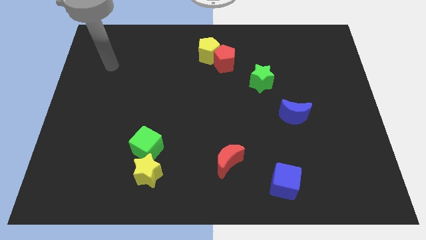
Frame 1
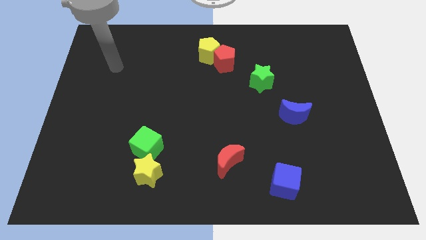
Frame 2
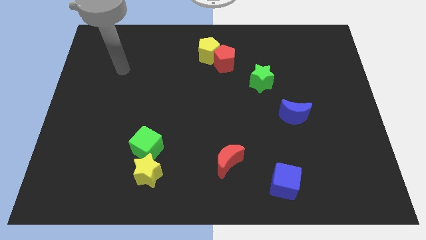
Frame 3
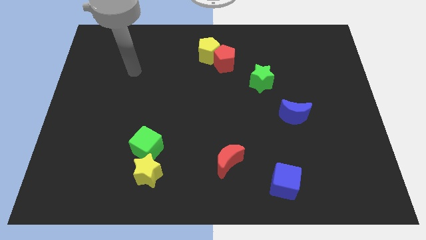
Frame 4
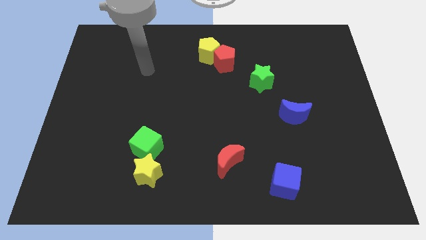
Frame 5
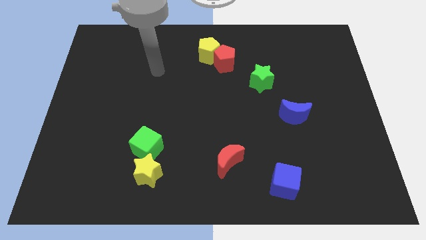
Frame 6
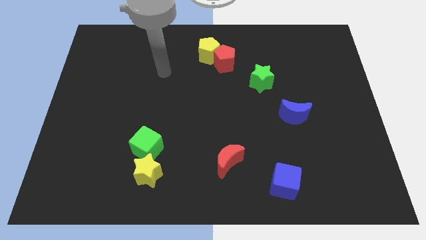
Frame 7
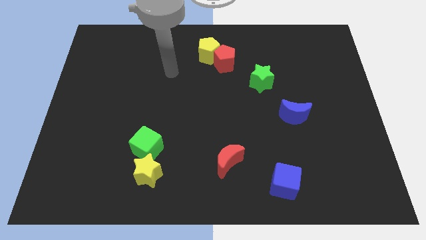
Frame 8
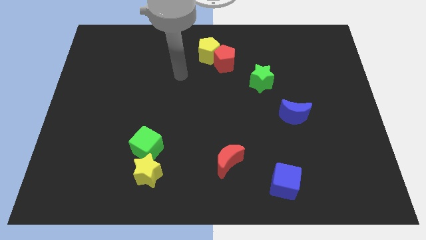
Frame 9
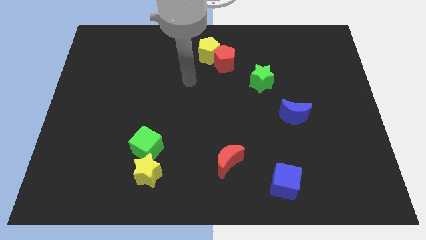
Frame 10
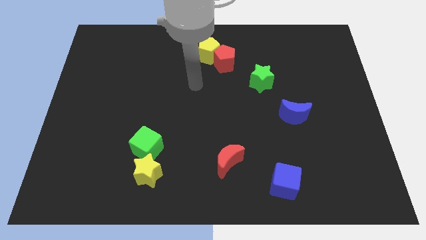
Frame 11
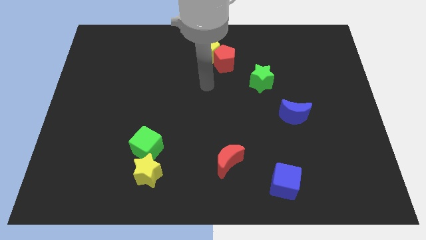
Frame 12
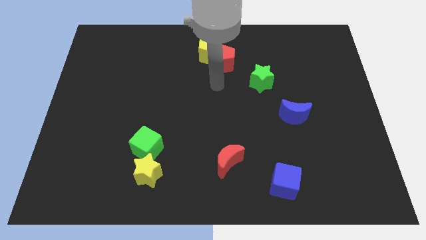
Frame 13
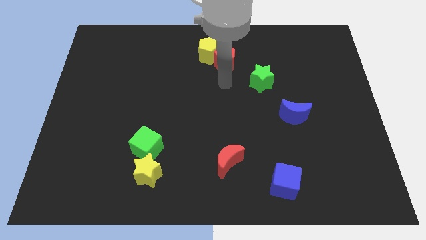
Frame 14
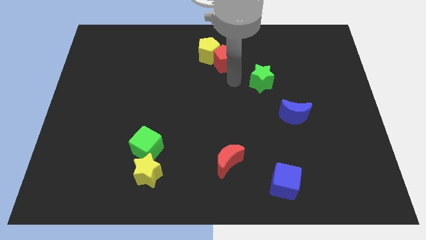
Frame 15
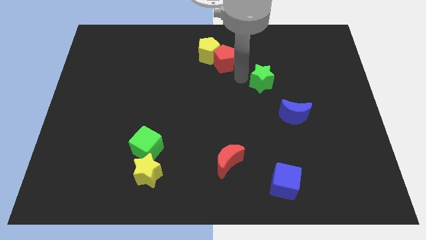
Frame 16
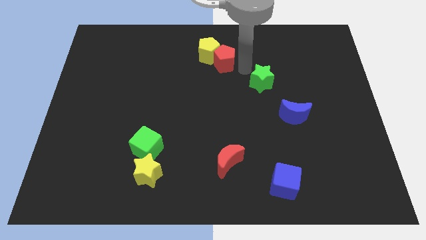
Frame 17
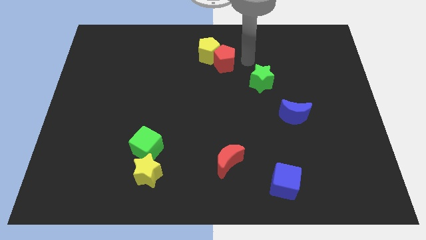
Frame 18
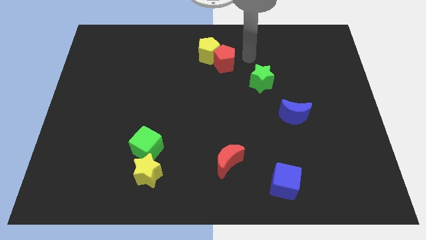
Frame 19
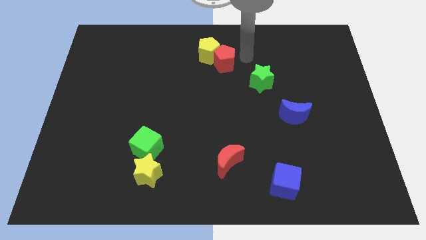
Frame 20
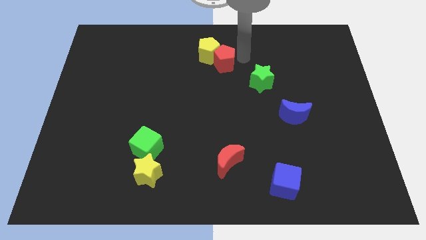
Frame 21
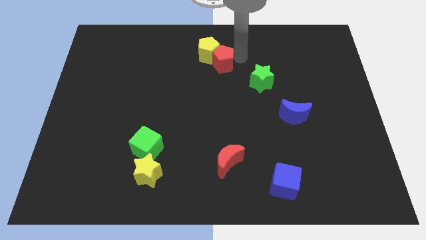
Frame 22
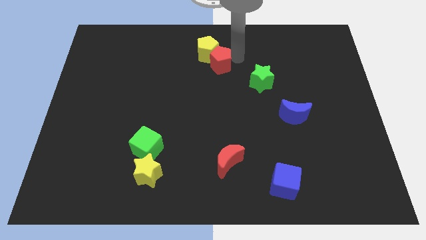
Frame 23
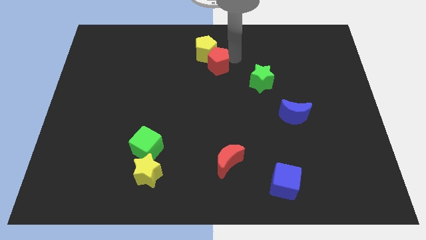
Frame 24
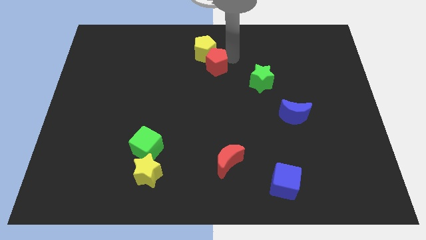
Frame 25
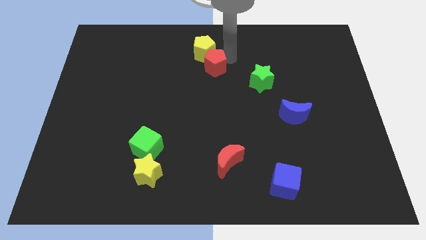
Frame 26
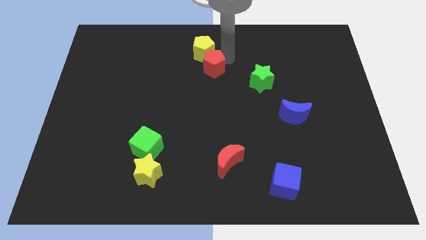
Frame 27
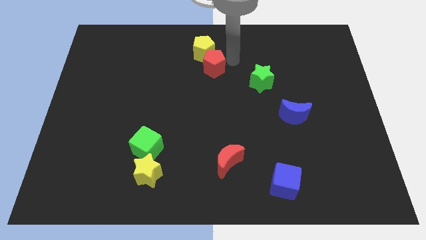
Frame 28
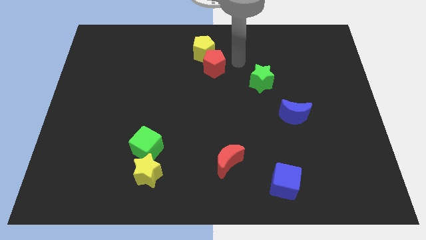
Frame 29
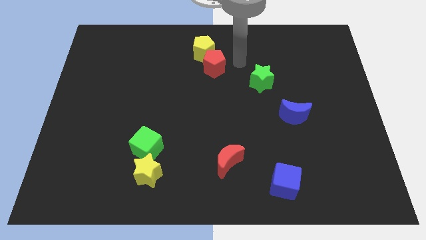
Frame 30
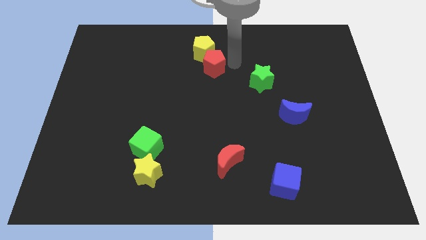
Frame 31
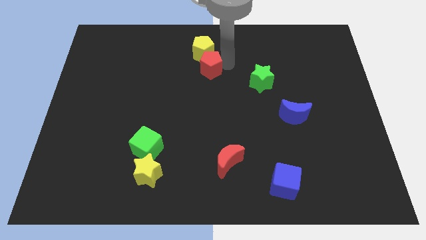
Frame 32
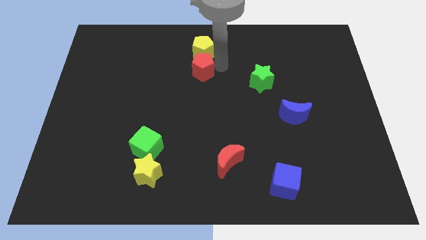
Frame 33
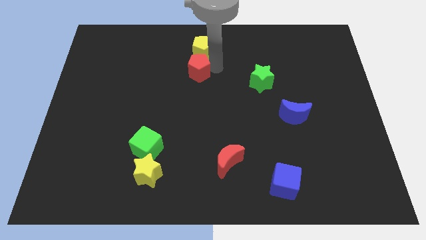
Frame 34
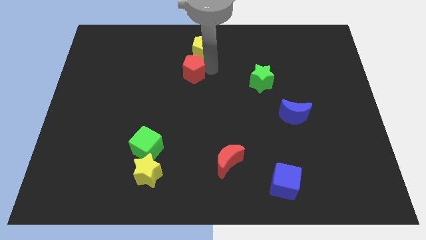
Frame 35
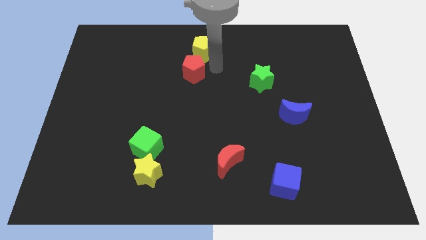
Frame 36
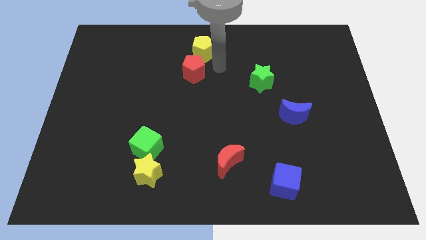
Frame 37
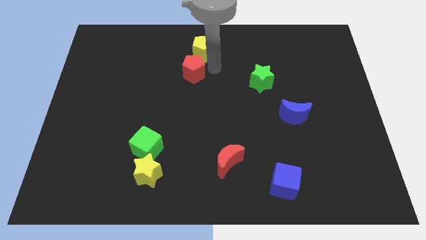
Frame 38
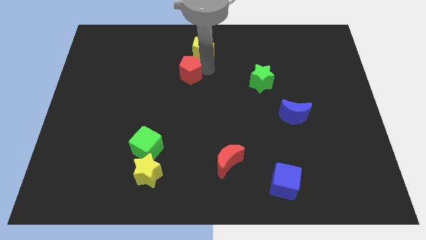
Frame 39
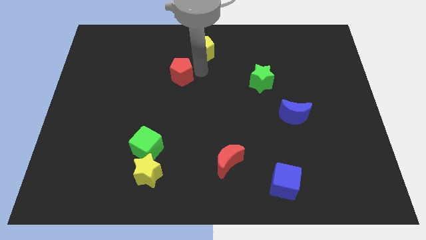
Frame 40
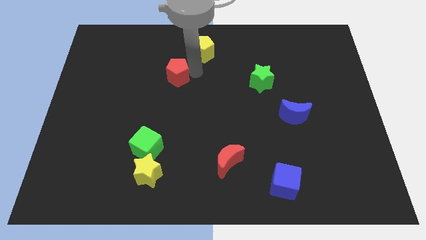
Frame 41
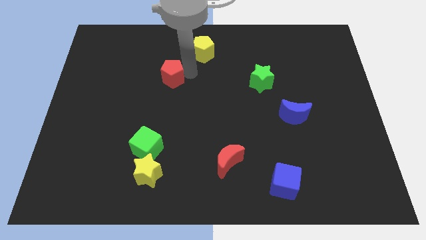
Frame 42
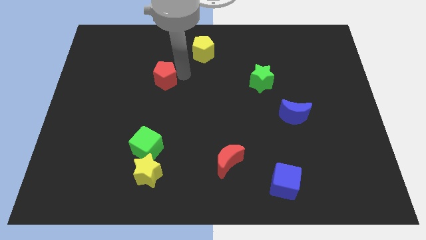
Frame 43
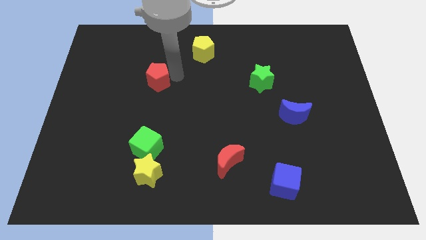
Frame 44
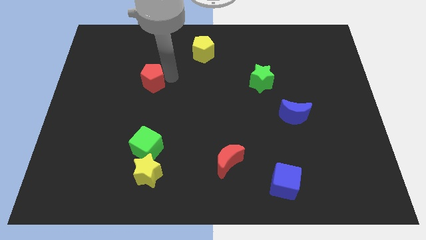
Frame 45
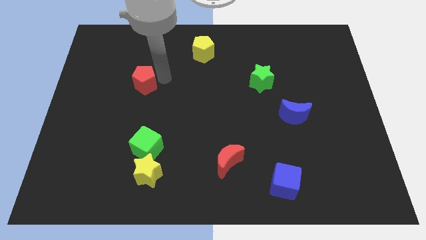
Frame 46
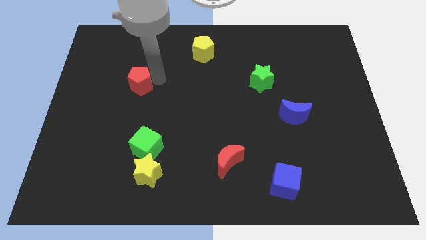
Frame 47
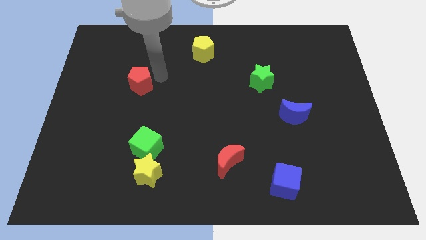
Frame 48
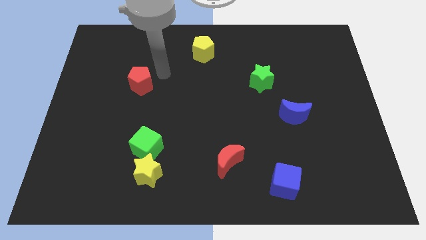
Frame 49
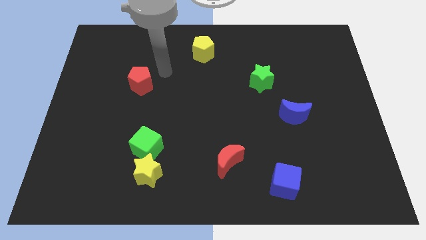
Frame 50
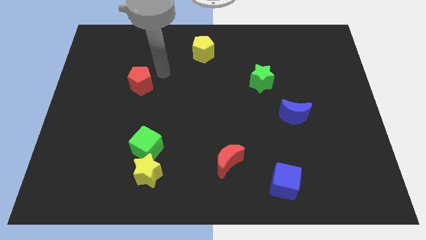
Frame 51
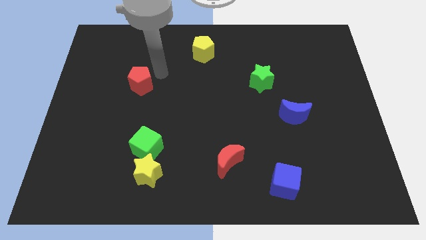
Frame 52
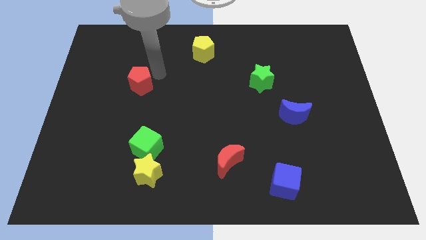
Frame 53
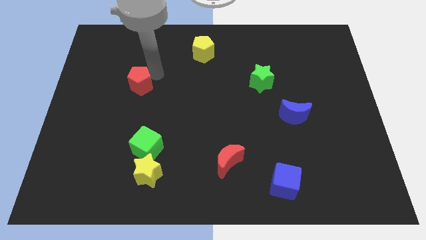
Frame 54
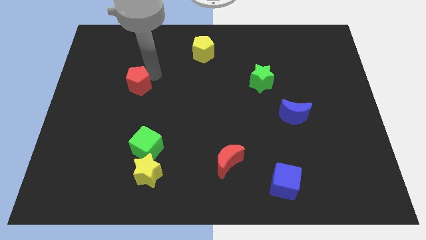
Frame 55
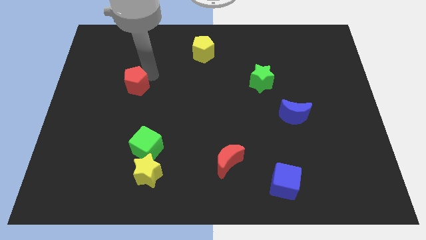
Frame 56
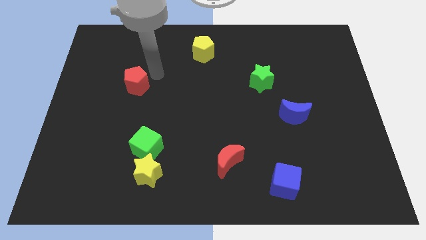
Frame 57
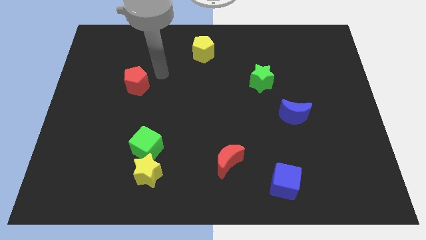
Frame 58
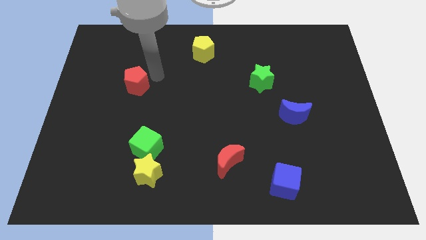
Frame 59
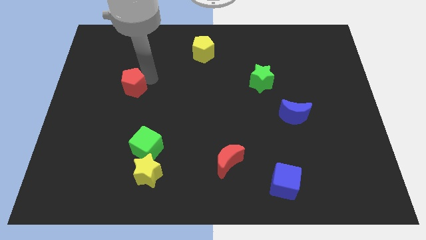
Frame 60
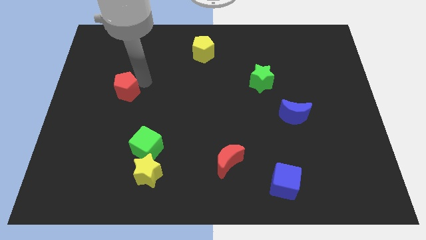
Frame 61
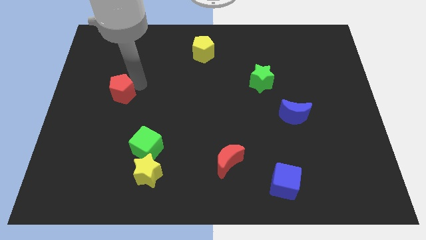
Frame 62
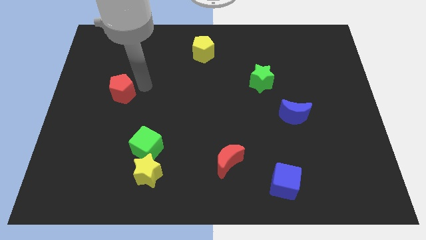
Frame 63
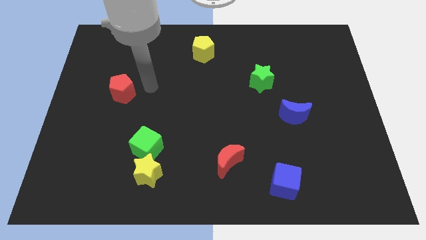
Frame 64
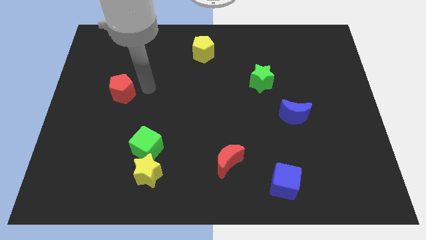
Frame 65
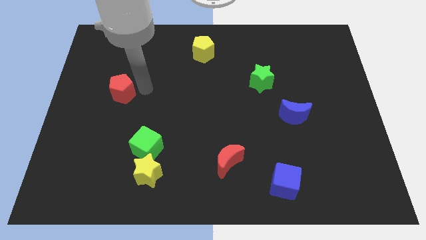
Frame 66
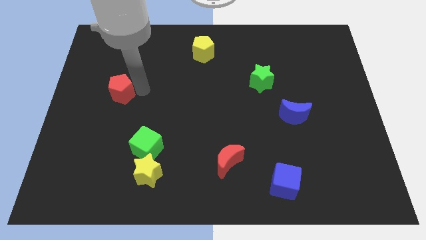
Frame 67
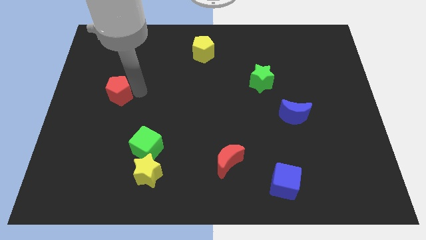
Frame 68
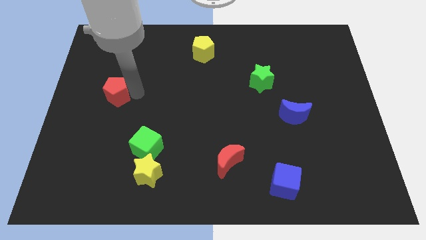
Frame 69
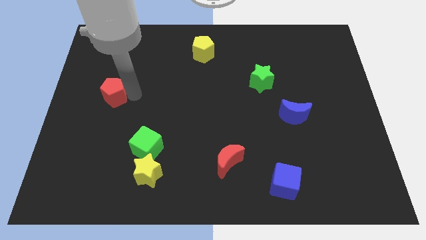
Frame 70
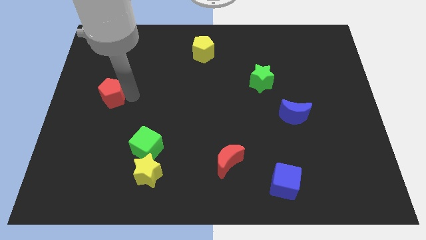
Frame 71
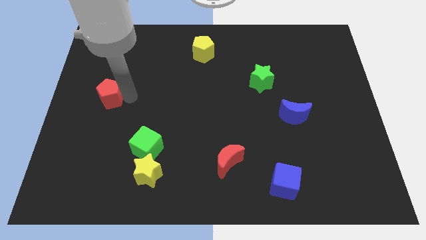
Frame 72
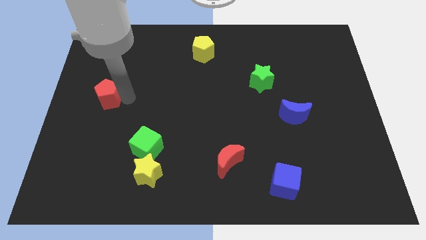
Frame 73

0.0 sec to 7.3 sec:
push the red pentagon to the center left
